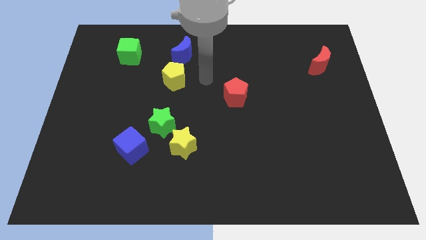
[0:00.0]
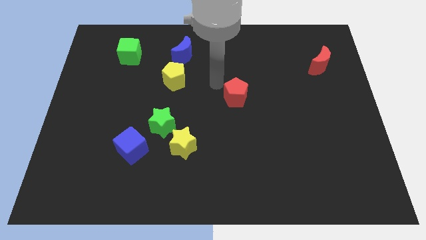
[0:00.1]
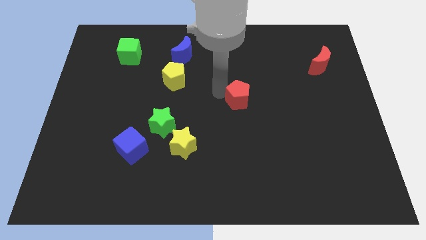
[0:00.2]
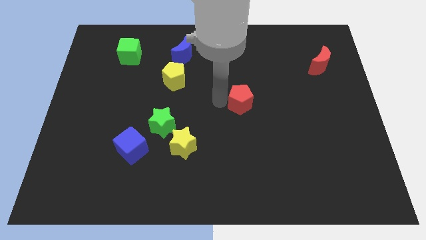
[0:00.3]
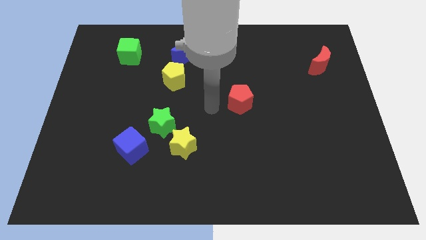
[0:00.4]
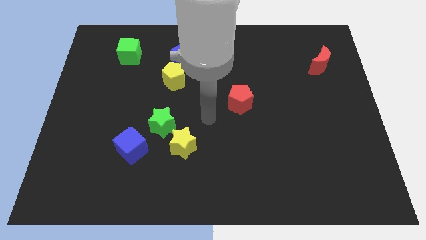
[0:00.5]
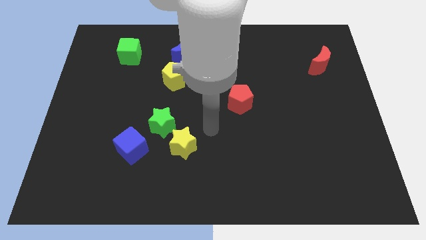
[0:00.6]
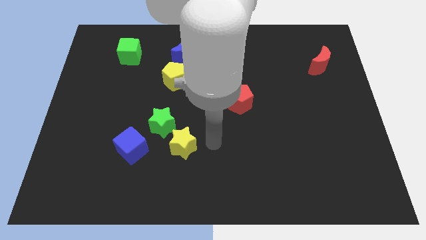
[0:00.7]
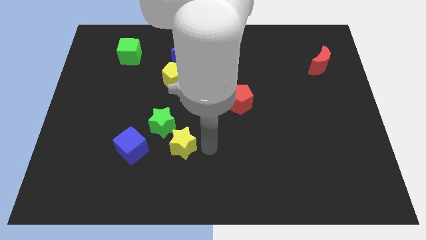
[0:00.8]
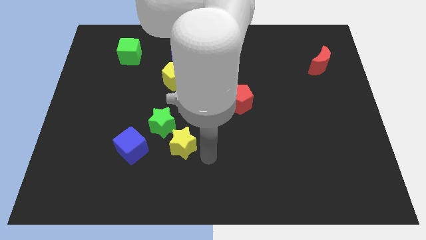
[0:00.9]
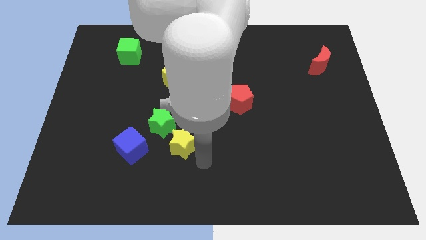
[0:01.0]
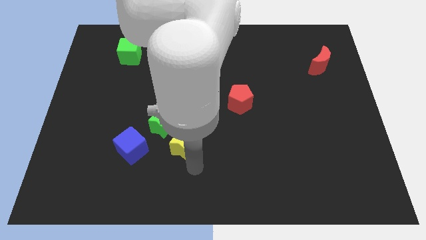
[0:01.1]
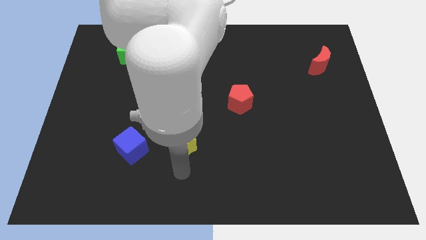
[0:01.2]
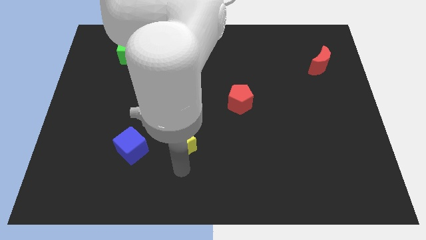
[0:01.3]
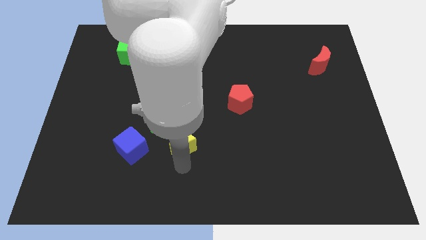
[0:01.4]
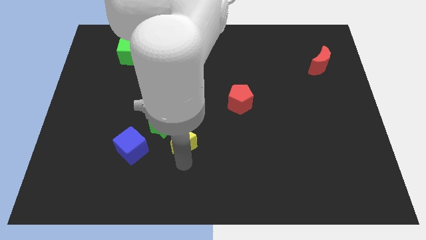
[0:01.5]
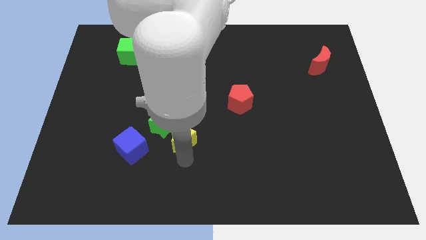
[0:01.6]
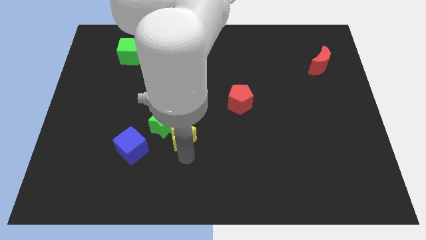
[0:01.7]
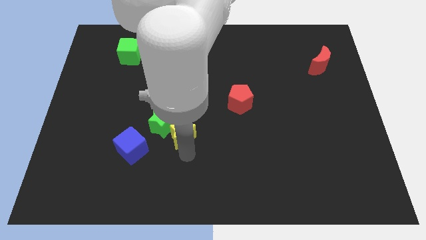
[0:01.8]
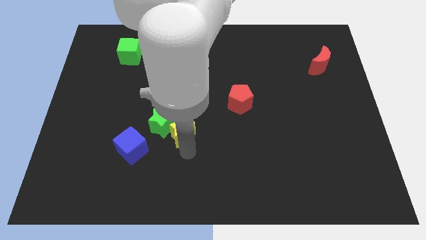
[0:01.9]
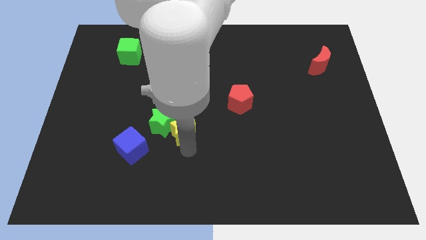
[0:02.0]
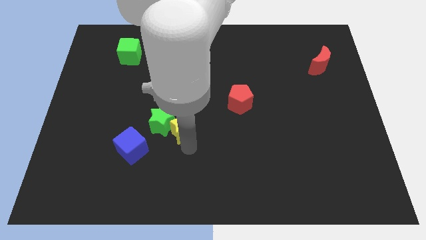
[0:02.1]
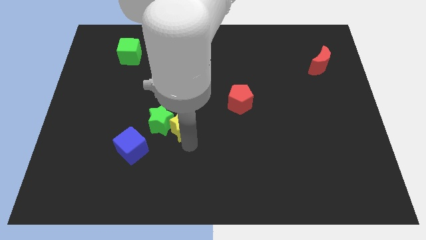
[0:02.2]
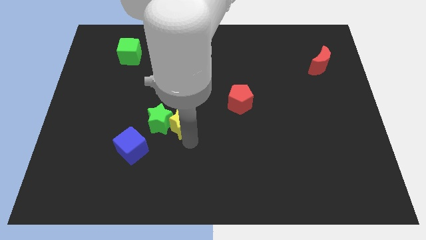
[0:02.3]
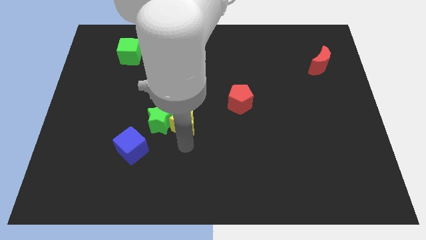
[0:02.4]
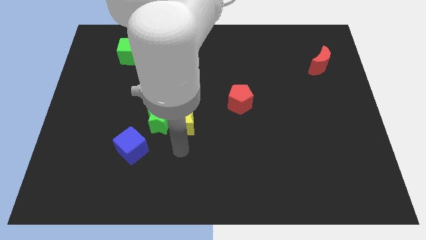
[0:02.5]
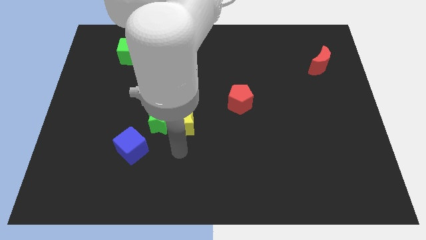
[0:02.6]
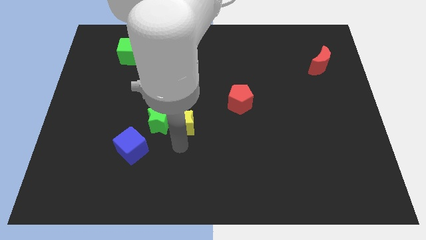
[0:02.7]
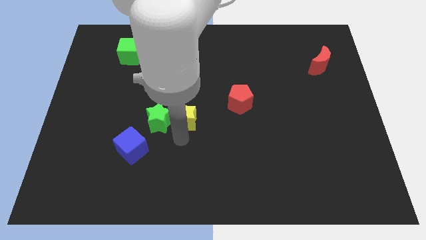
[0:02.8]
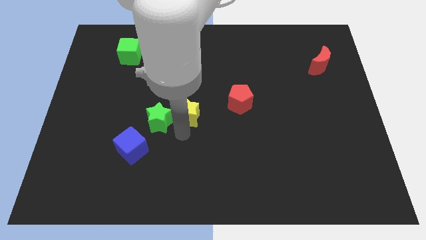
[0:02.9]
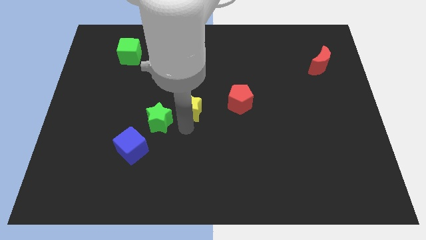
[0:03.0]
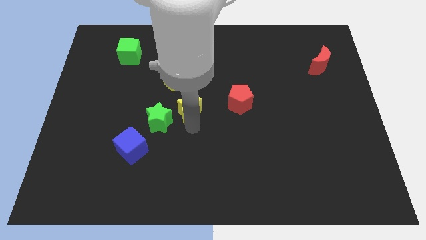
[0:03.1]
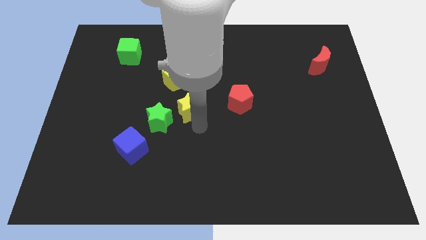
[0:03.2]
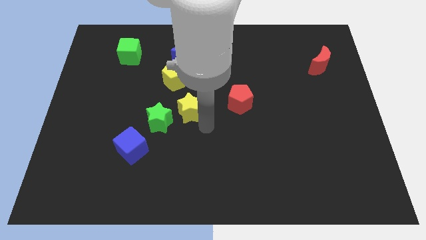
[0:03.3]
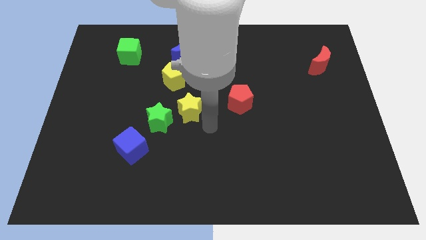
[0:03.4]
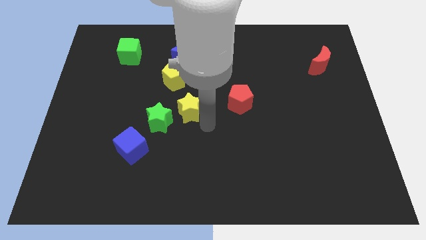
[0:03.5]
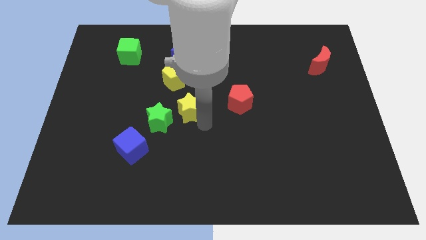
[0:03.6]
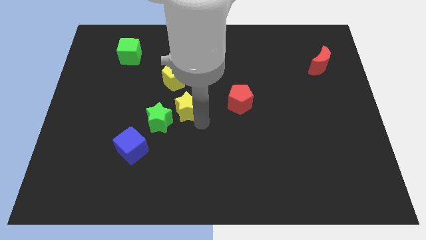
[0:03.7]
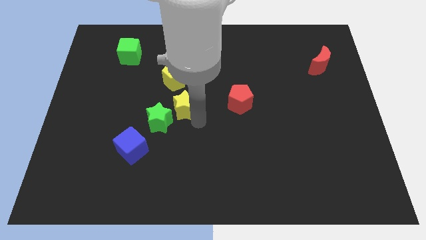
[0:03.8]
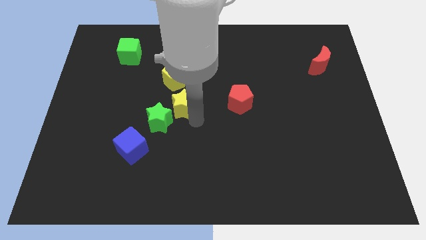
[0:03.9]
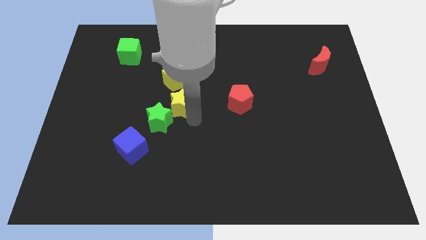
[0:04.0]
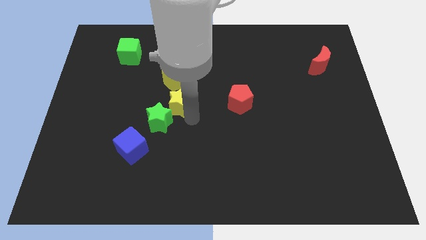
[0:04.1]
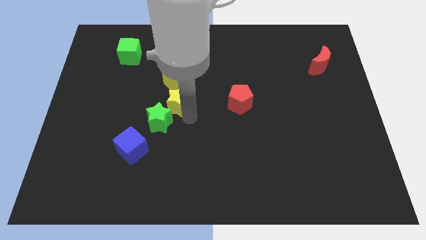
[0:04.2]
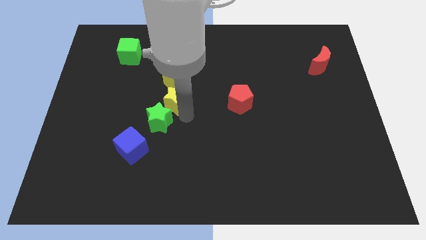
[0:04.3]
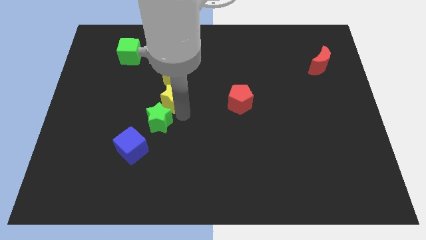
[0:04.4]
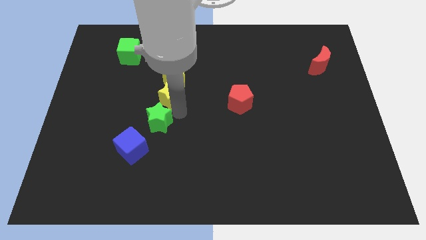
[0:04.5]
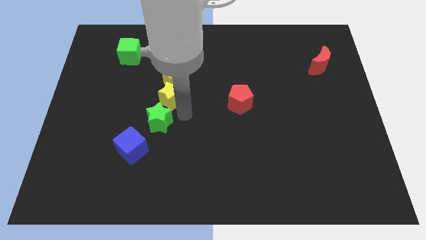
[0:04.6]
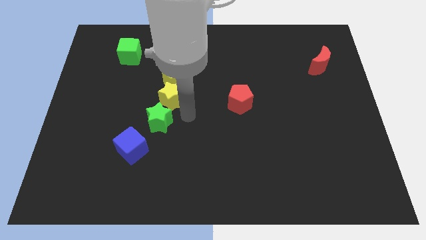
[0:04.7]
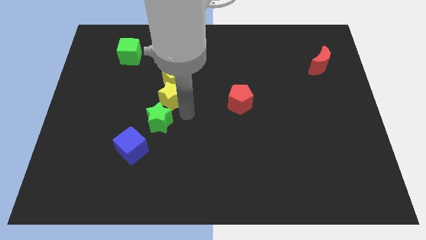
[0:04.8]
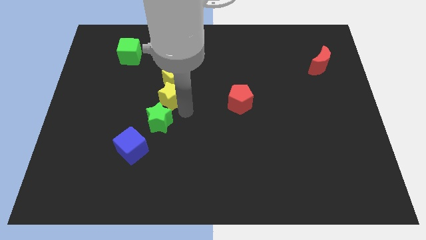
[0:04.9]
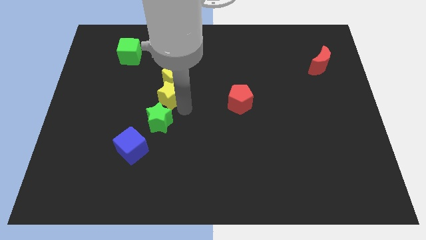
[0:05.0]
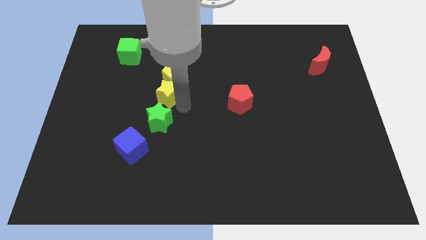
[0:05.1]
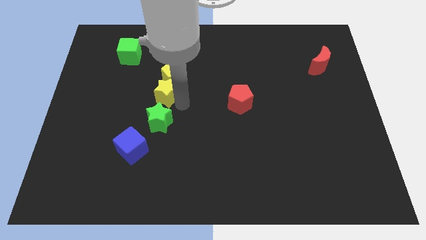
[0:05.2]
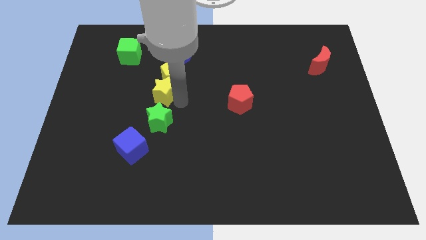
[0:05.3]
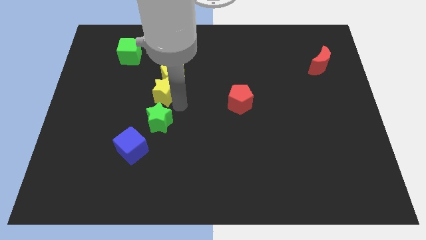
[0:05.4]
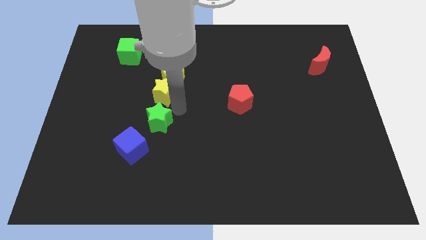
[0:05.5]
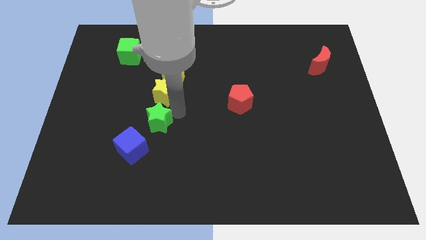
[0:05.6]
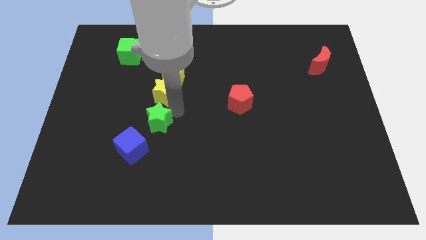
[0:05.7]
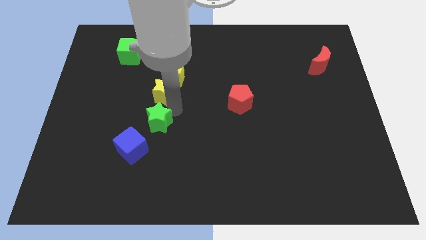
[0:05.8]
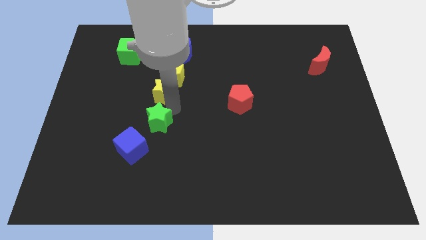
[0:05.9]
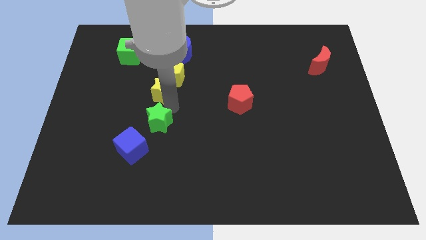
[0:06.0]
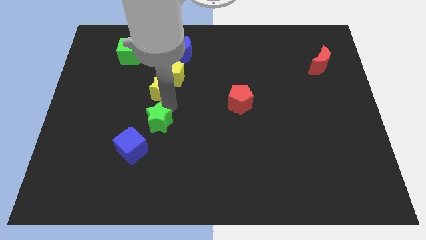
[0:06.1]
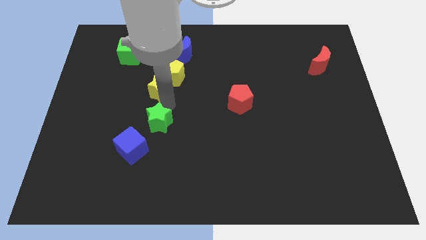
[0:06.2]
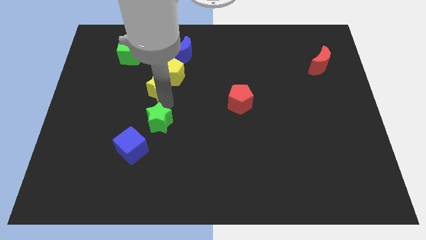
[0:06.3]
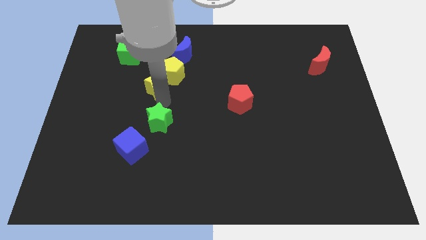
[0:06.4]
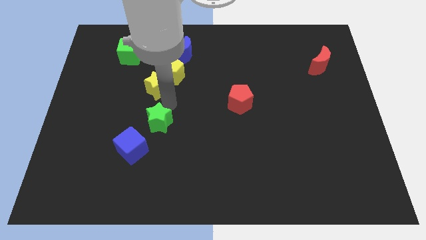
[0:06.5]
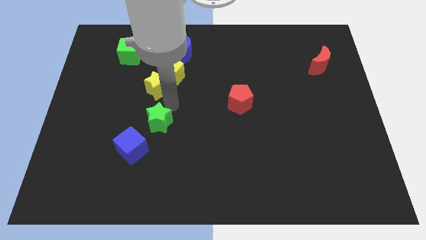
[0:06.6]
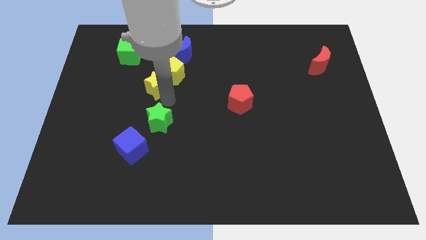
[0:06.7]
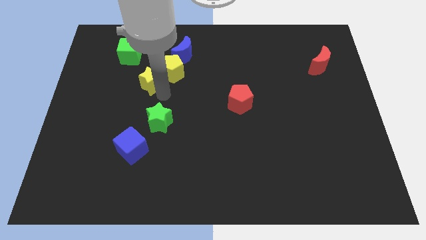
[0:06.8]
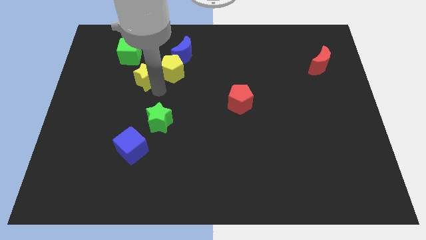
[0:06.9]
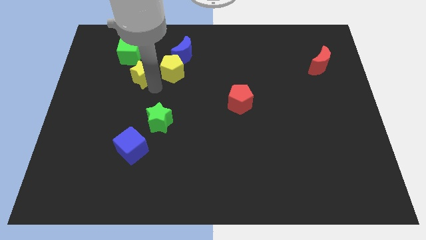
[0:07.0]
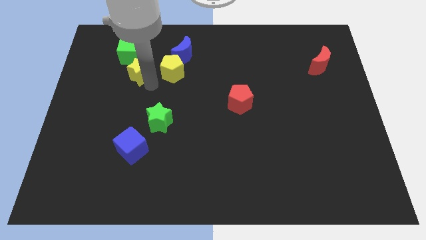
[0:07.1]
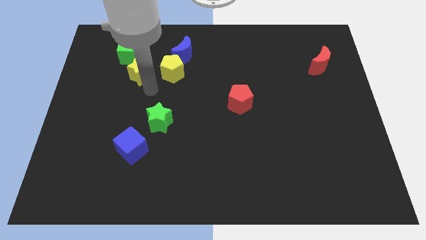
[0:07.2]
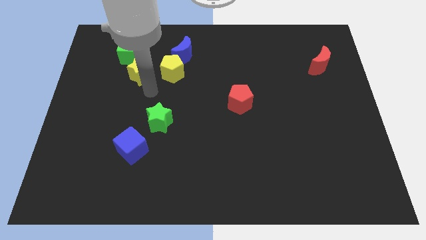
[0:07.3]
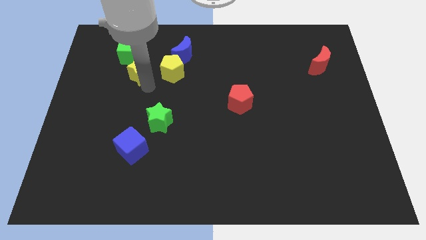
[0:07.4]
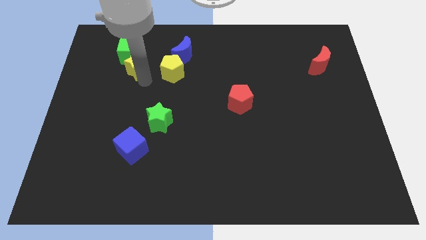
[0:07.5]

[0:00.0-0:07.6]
put the yellow star close to the green cube
